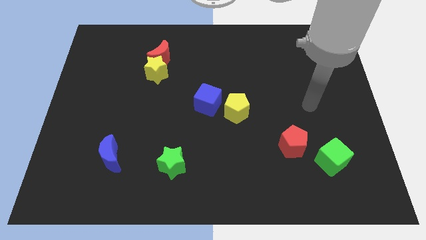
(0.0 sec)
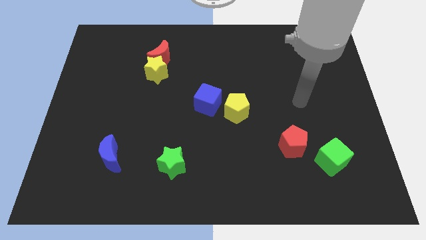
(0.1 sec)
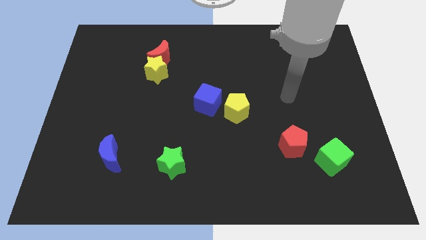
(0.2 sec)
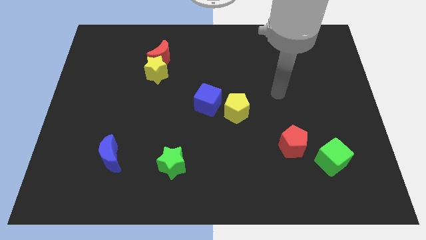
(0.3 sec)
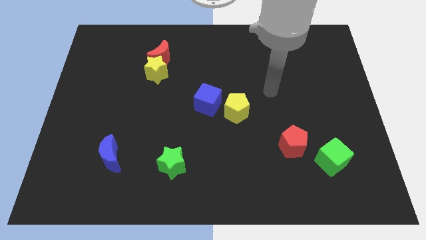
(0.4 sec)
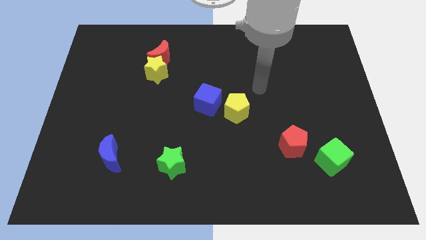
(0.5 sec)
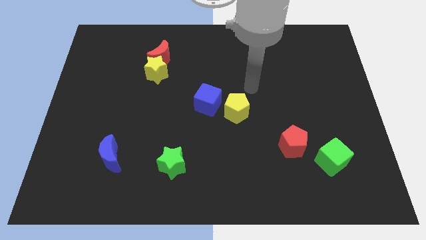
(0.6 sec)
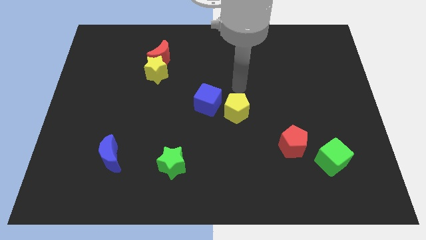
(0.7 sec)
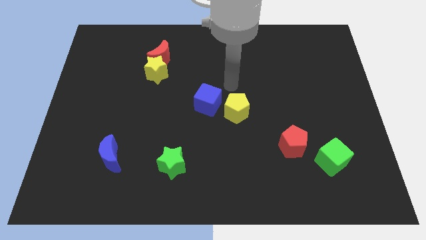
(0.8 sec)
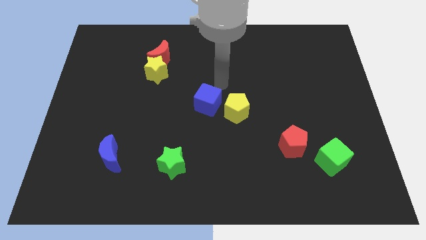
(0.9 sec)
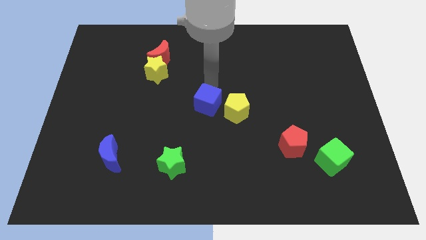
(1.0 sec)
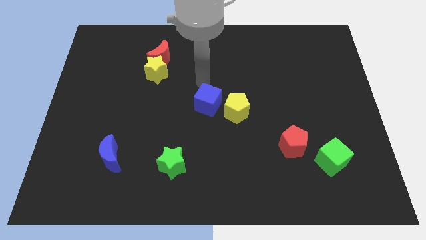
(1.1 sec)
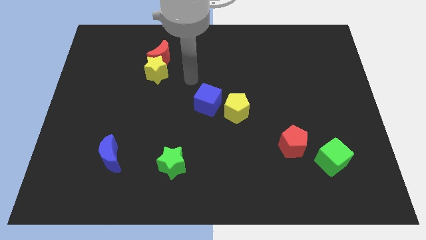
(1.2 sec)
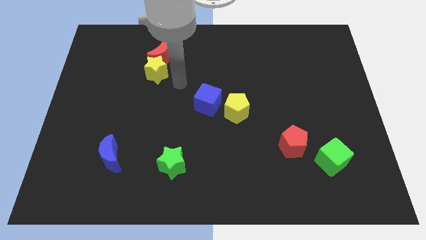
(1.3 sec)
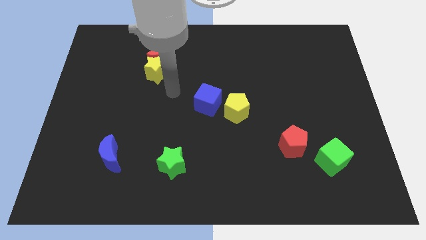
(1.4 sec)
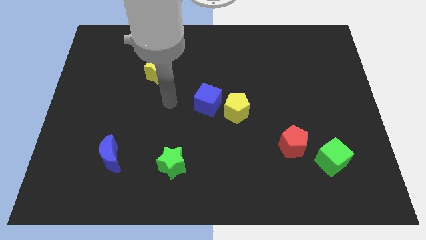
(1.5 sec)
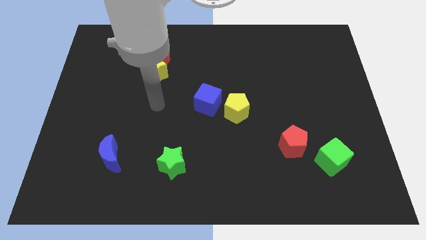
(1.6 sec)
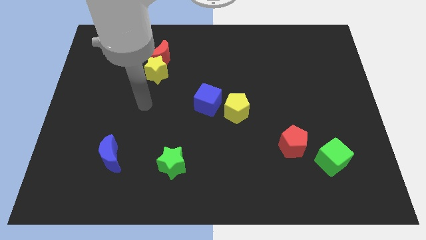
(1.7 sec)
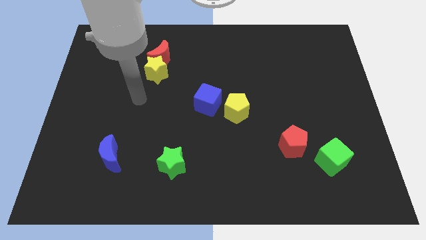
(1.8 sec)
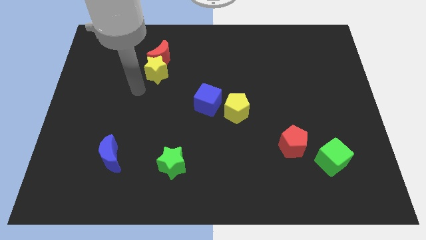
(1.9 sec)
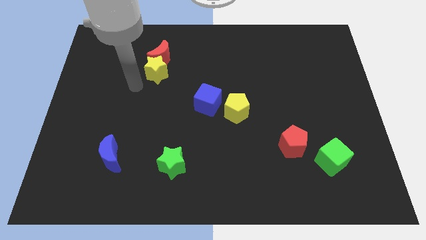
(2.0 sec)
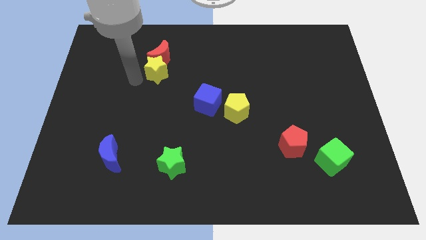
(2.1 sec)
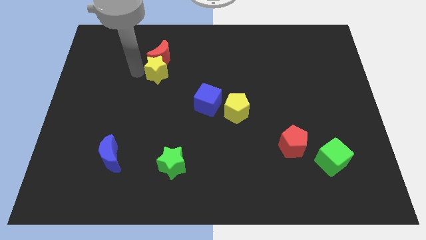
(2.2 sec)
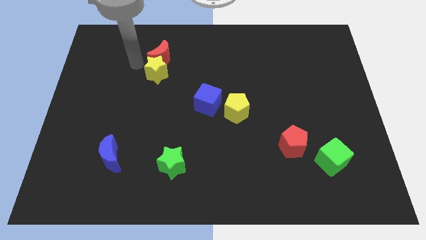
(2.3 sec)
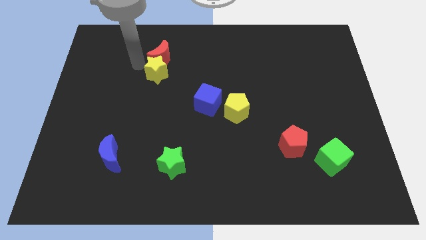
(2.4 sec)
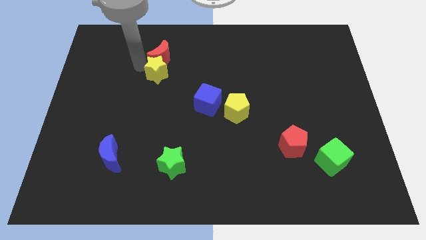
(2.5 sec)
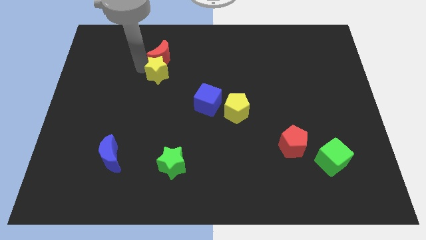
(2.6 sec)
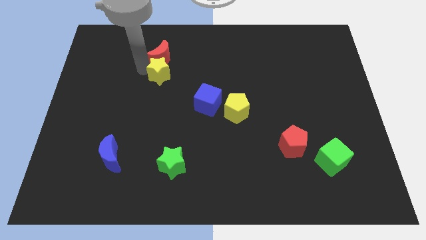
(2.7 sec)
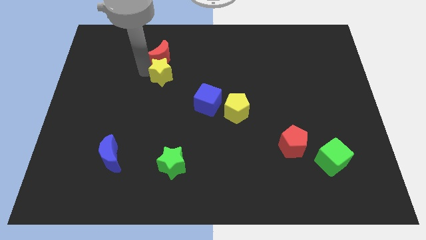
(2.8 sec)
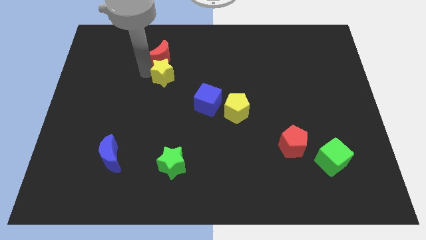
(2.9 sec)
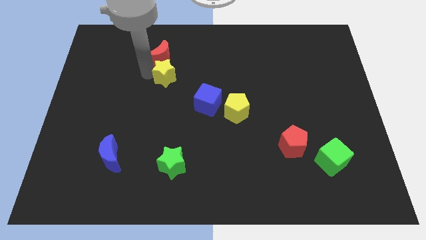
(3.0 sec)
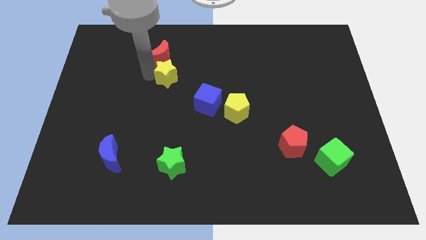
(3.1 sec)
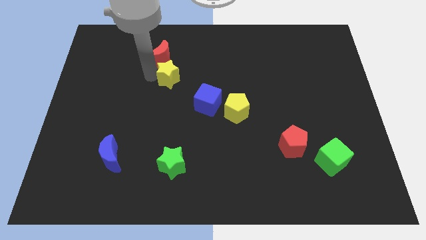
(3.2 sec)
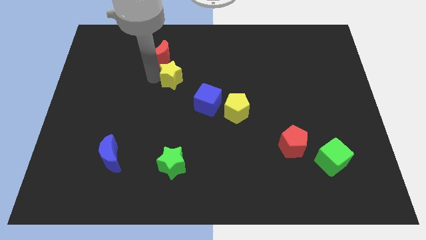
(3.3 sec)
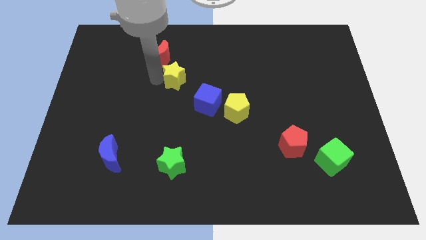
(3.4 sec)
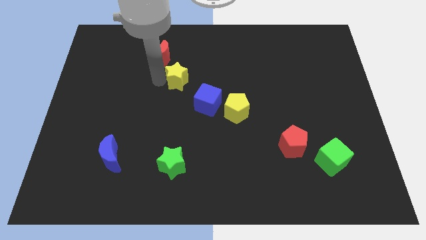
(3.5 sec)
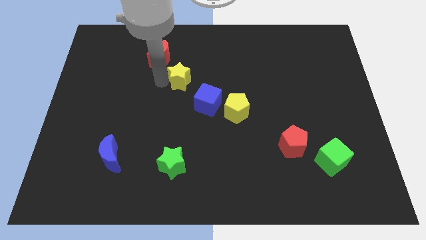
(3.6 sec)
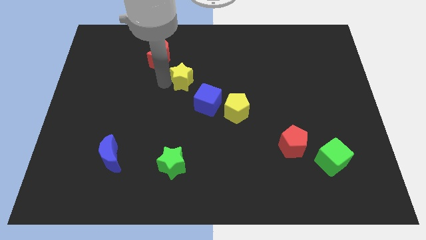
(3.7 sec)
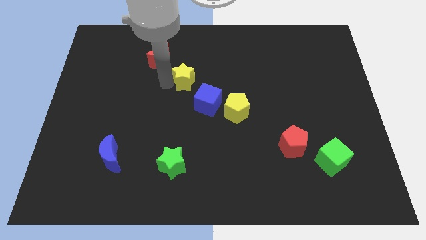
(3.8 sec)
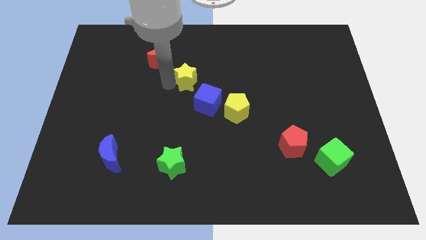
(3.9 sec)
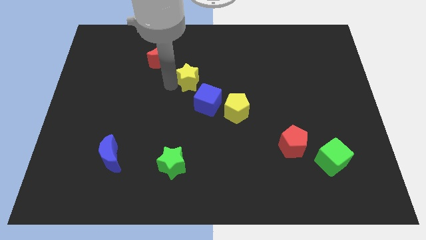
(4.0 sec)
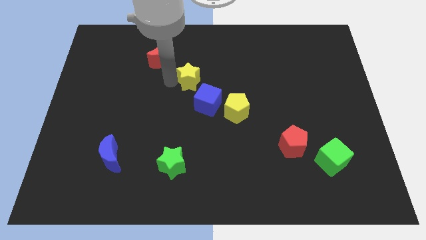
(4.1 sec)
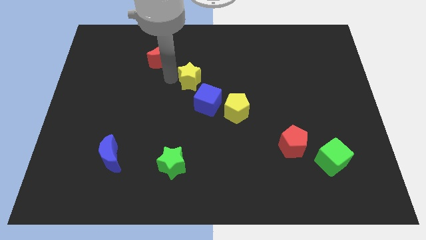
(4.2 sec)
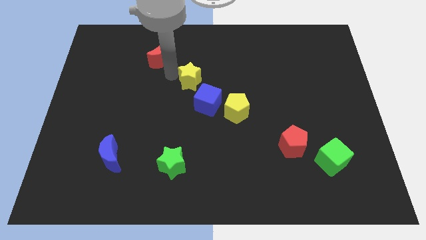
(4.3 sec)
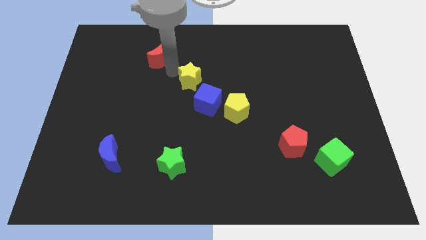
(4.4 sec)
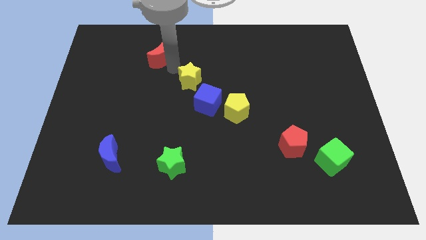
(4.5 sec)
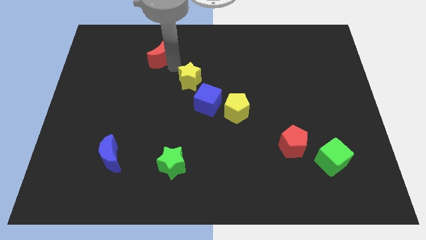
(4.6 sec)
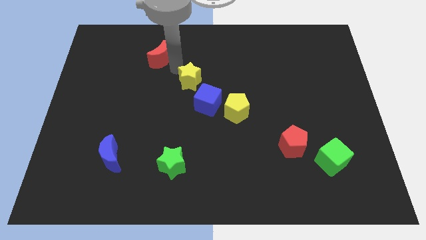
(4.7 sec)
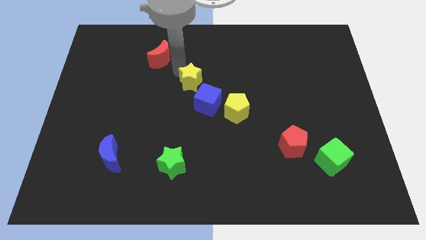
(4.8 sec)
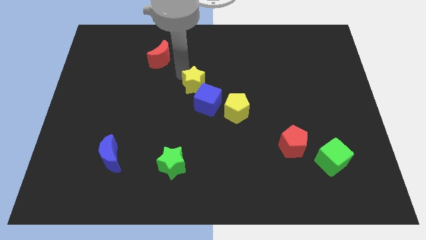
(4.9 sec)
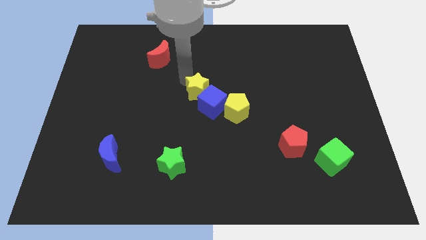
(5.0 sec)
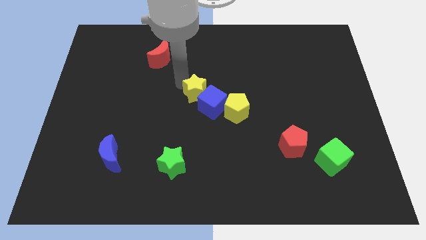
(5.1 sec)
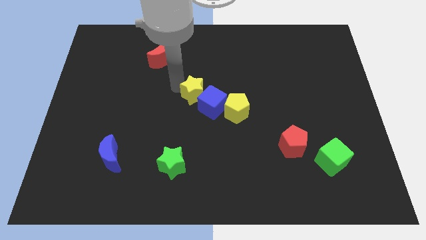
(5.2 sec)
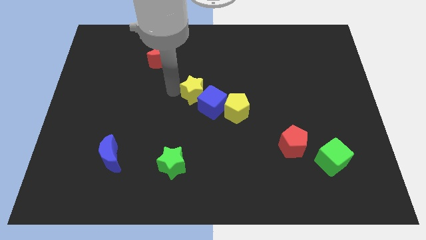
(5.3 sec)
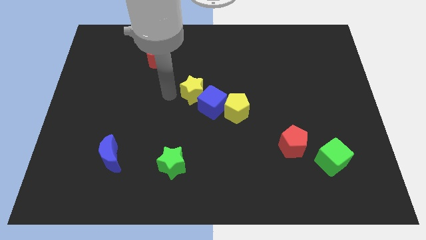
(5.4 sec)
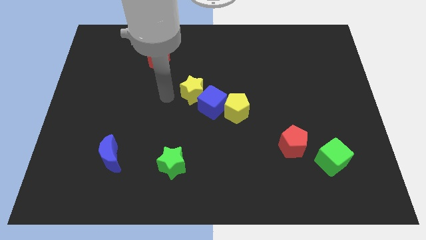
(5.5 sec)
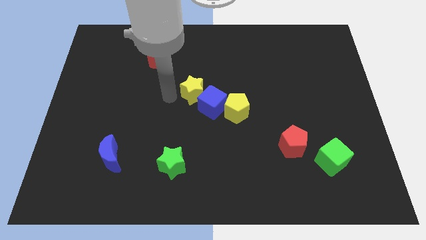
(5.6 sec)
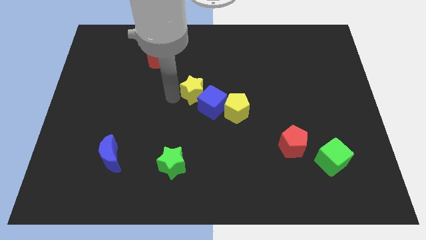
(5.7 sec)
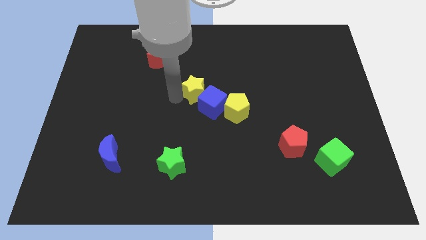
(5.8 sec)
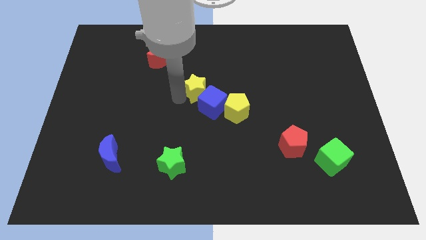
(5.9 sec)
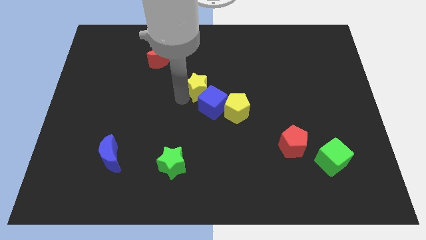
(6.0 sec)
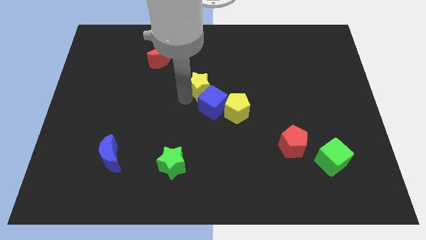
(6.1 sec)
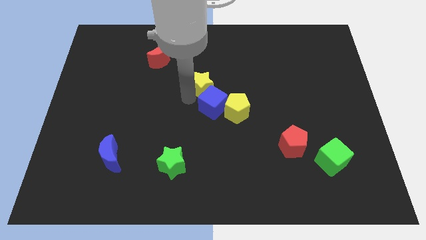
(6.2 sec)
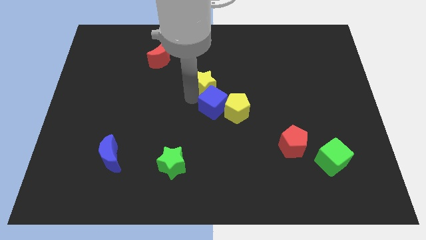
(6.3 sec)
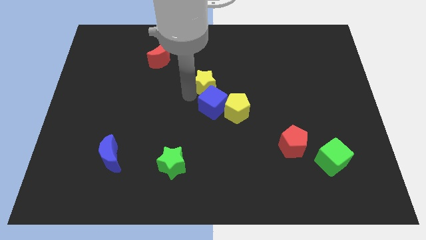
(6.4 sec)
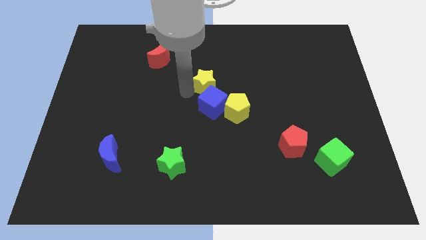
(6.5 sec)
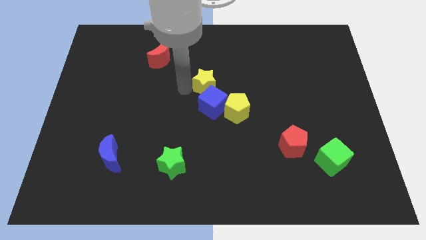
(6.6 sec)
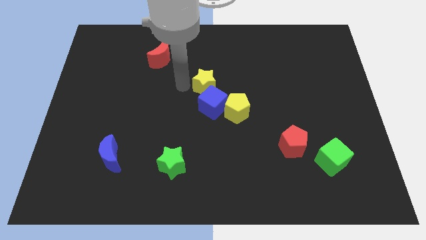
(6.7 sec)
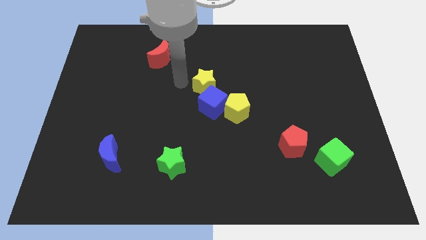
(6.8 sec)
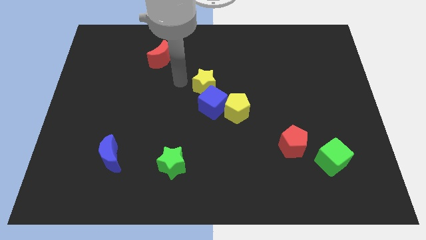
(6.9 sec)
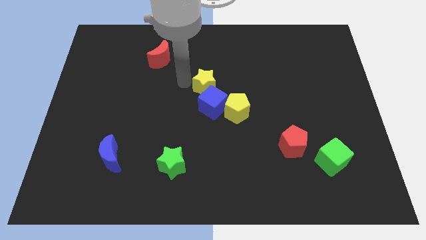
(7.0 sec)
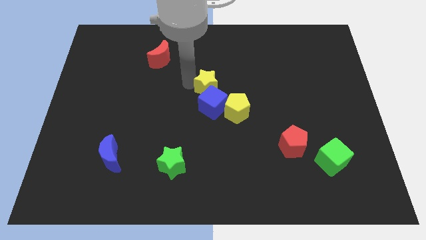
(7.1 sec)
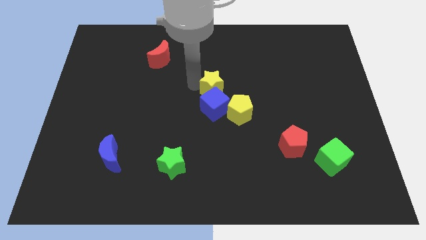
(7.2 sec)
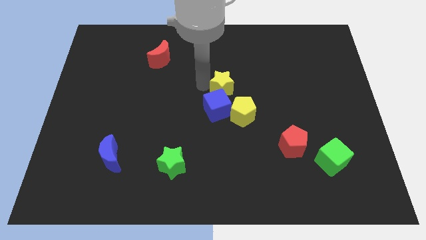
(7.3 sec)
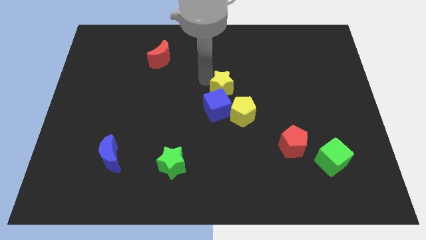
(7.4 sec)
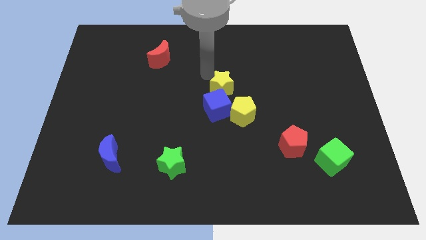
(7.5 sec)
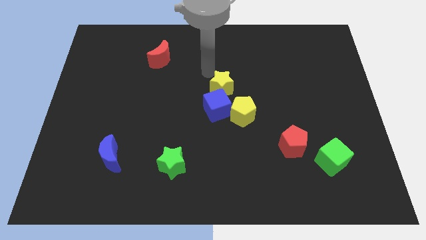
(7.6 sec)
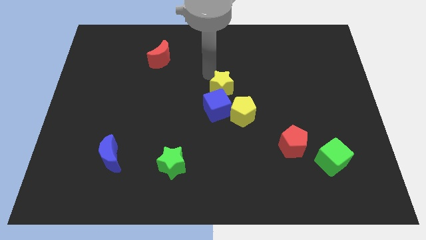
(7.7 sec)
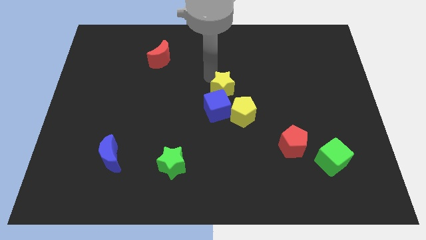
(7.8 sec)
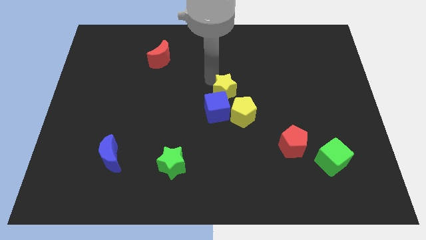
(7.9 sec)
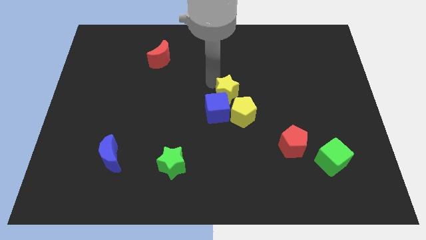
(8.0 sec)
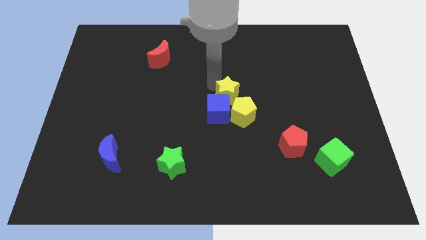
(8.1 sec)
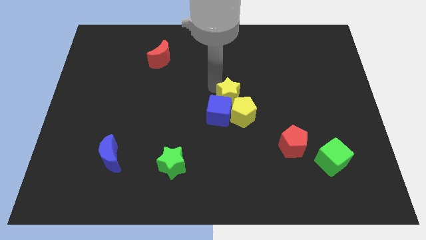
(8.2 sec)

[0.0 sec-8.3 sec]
put the yellow star to the yellow pentagon
